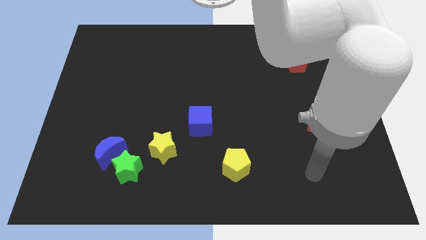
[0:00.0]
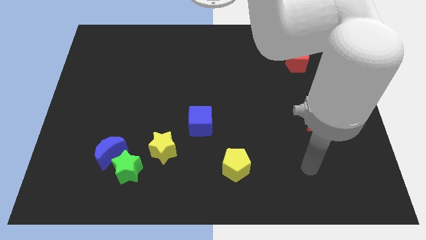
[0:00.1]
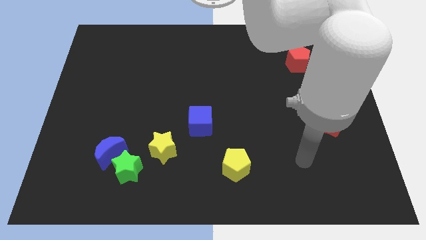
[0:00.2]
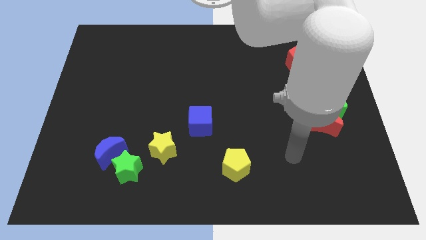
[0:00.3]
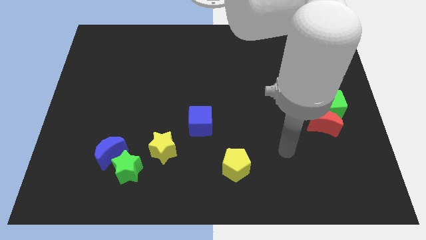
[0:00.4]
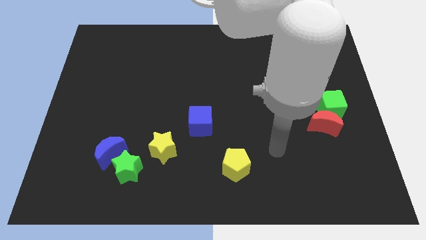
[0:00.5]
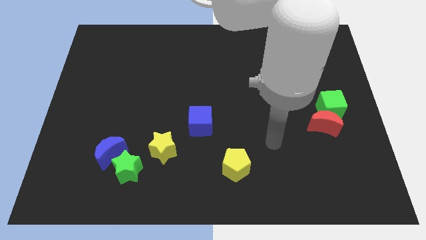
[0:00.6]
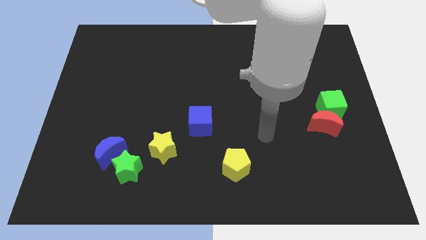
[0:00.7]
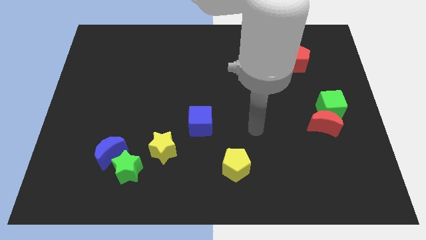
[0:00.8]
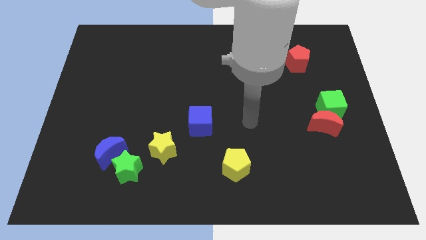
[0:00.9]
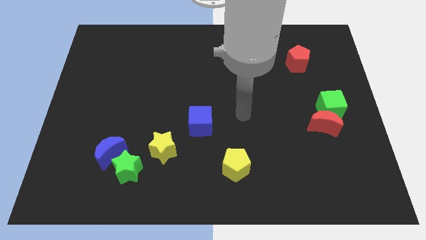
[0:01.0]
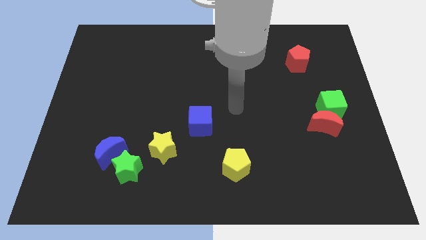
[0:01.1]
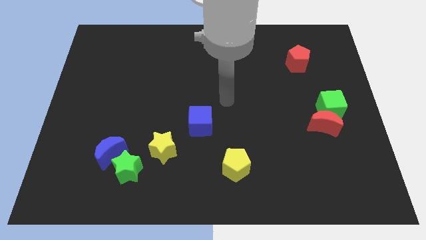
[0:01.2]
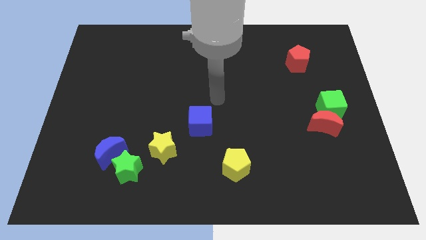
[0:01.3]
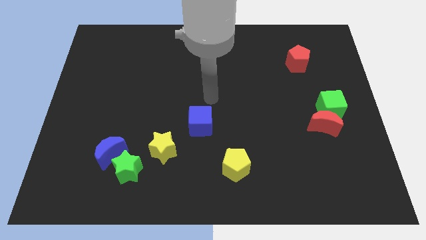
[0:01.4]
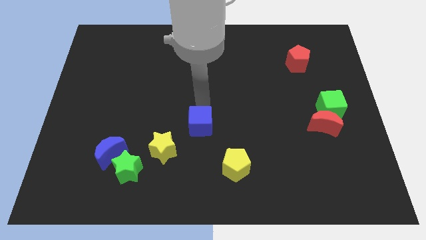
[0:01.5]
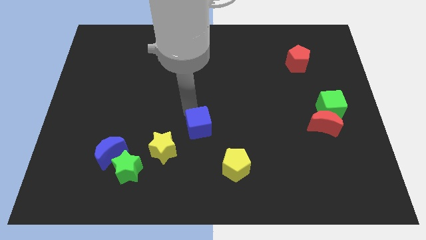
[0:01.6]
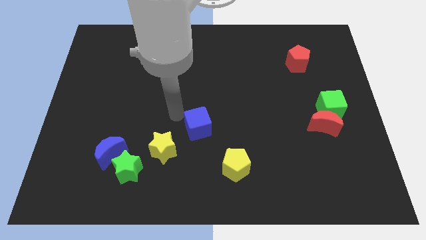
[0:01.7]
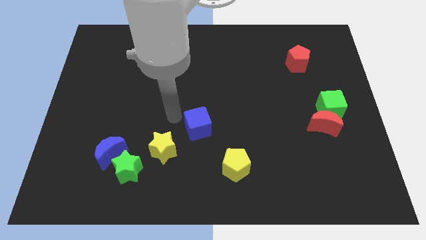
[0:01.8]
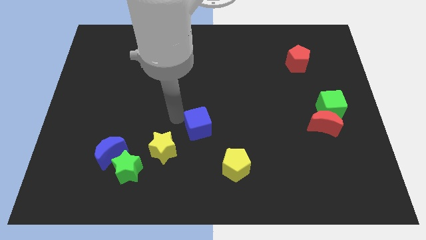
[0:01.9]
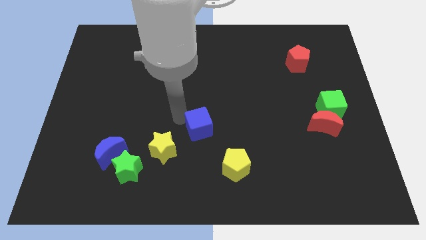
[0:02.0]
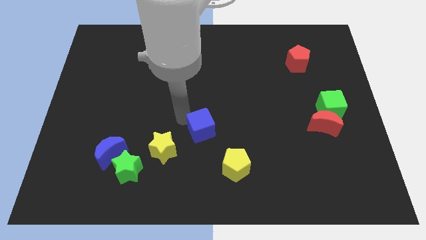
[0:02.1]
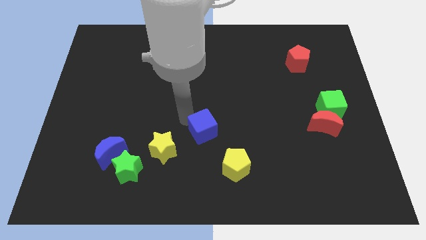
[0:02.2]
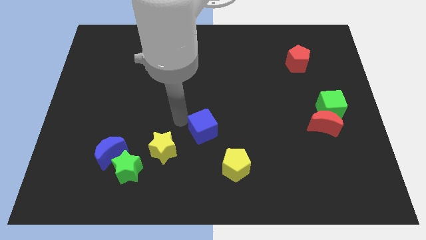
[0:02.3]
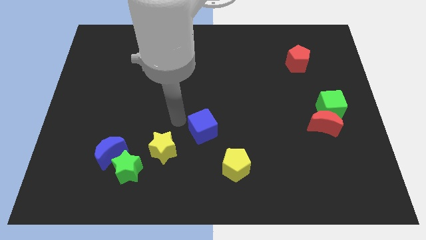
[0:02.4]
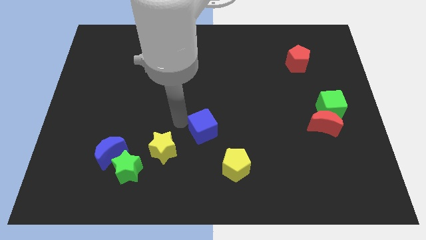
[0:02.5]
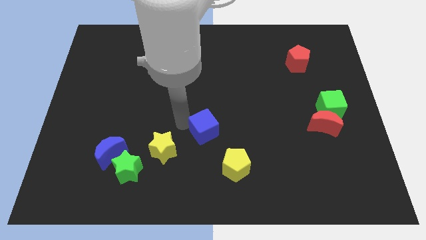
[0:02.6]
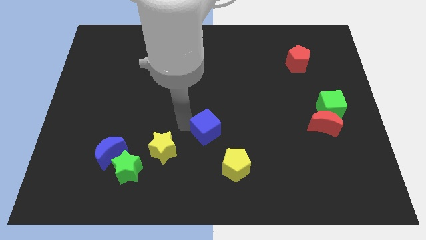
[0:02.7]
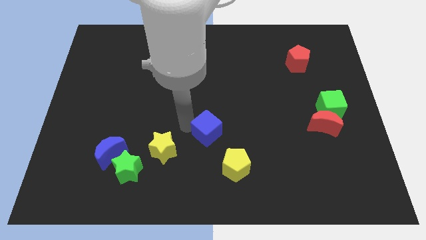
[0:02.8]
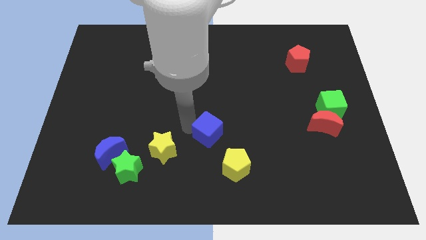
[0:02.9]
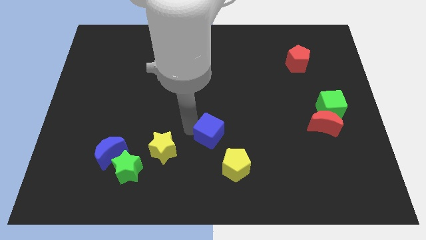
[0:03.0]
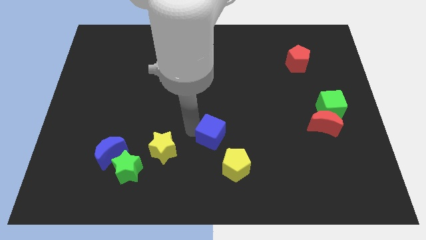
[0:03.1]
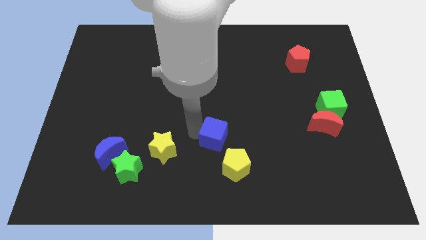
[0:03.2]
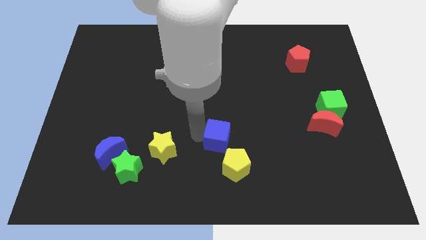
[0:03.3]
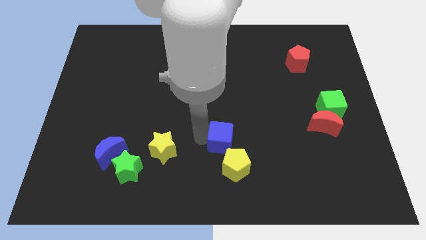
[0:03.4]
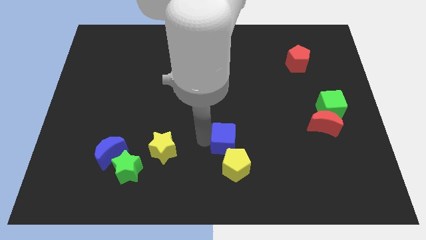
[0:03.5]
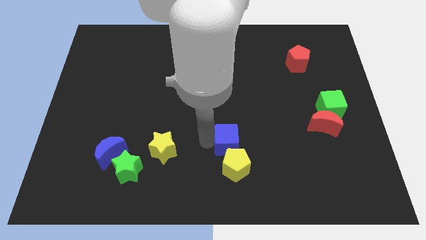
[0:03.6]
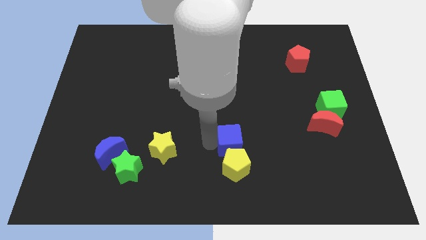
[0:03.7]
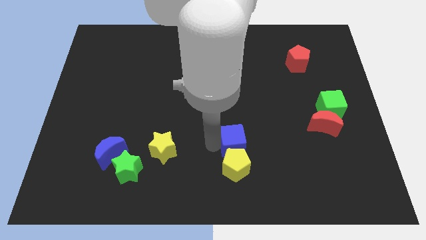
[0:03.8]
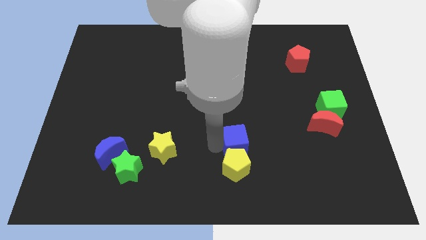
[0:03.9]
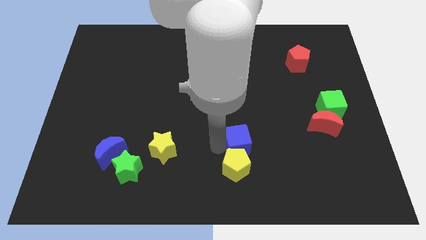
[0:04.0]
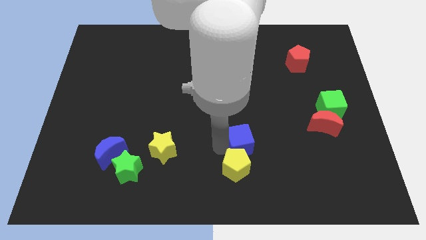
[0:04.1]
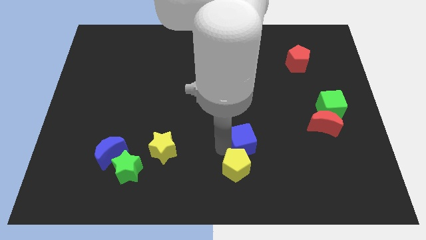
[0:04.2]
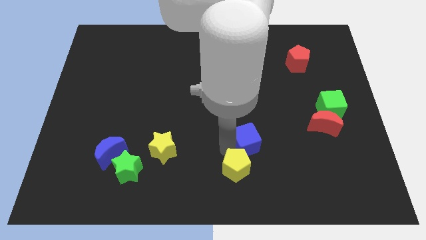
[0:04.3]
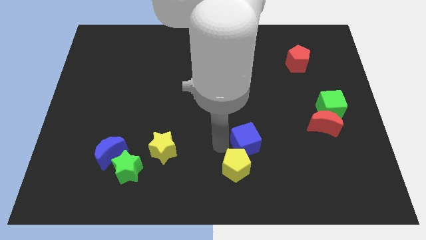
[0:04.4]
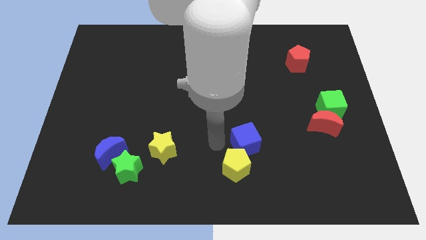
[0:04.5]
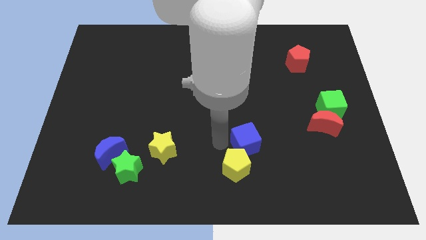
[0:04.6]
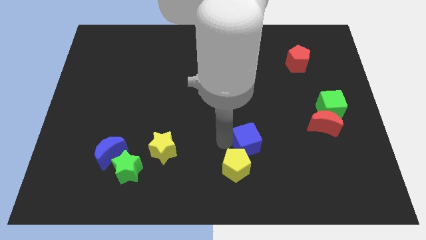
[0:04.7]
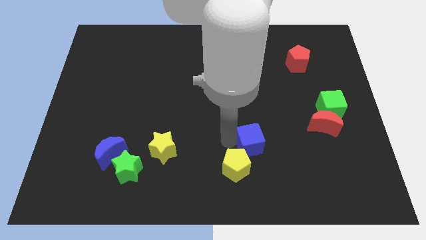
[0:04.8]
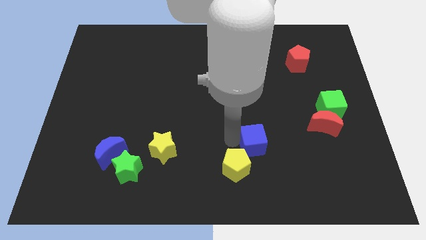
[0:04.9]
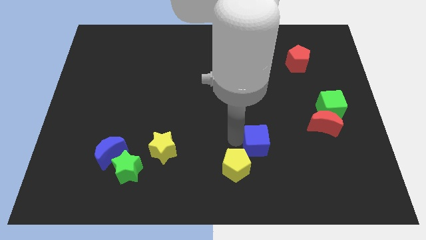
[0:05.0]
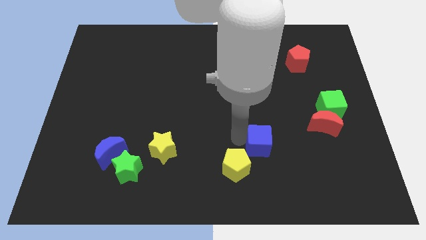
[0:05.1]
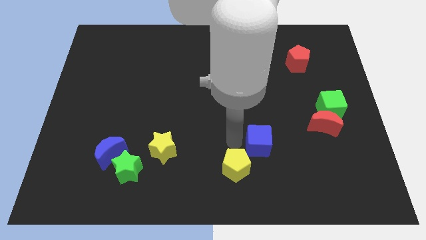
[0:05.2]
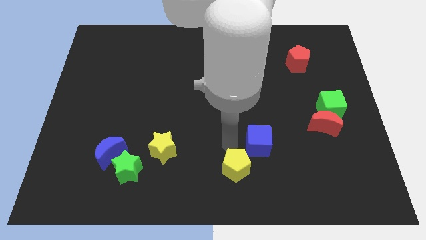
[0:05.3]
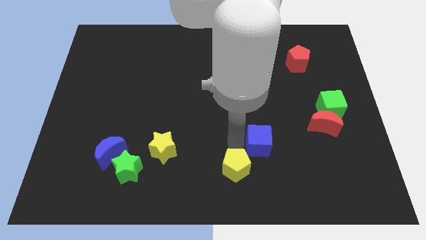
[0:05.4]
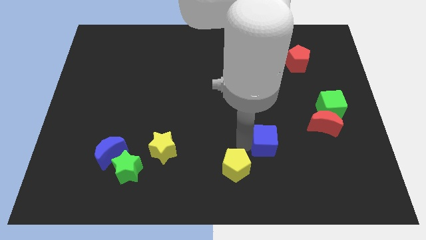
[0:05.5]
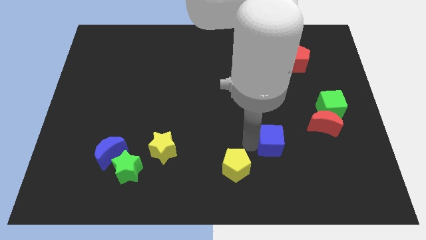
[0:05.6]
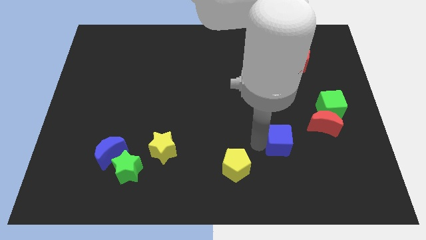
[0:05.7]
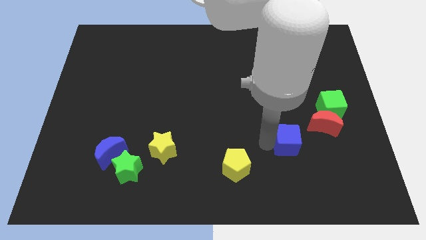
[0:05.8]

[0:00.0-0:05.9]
move the blue cube diagonally down and to the left of the red moon

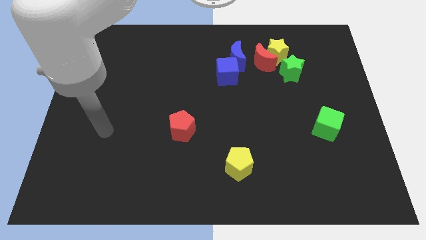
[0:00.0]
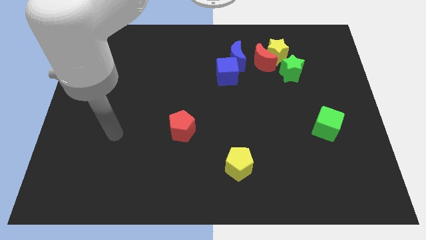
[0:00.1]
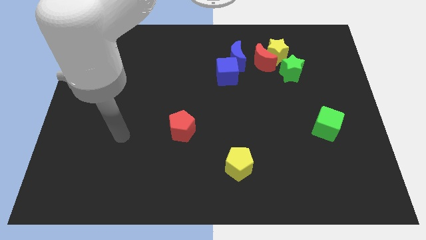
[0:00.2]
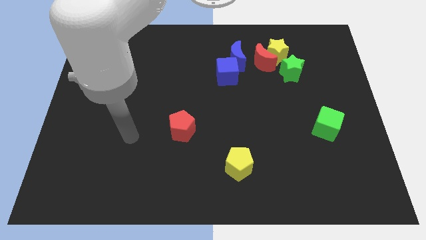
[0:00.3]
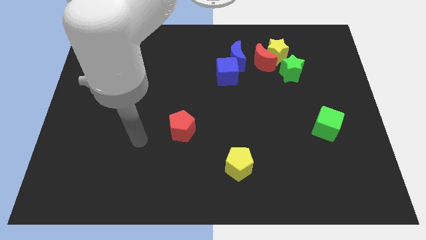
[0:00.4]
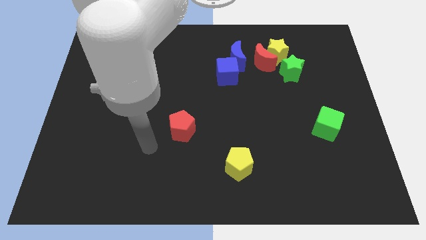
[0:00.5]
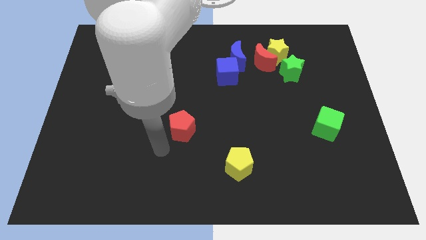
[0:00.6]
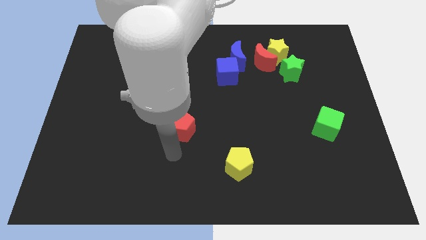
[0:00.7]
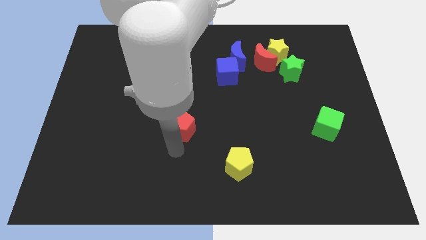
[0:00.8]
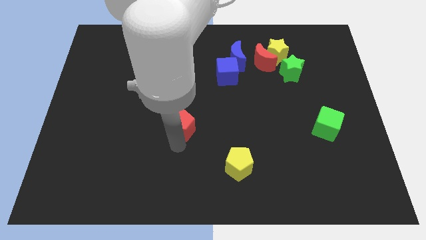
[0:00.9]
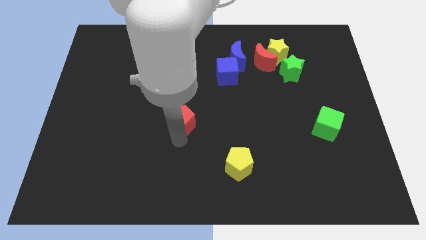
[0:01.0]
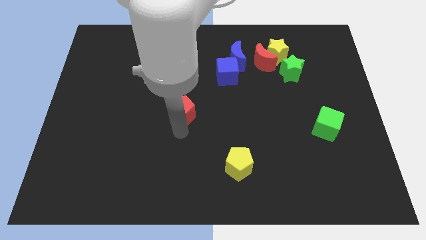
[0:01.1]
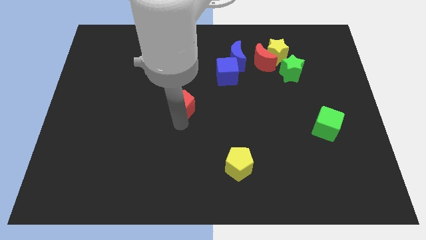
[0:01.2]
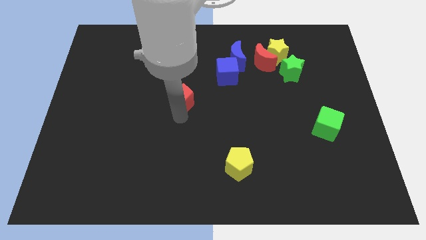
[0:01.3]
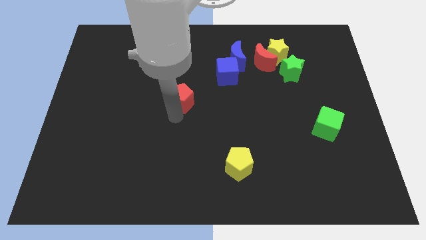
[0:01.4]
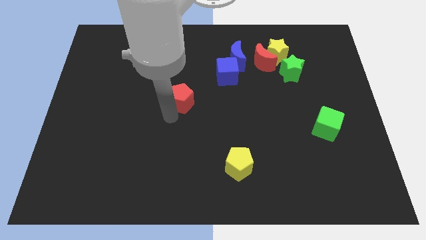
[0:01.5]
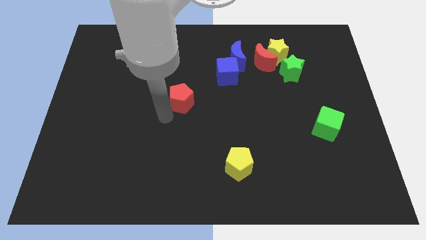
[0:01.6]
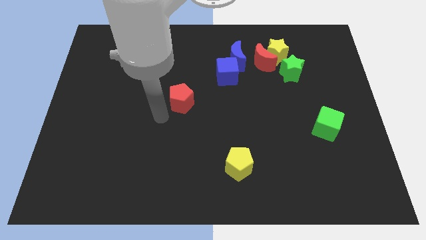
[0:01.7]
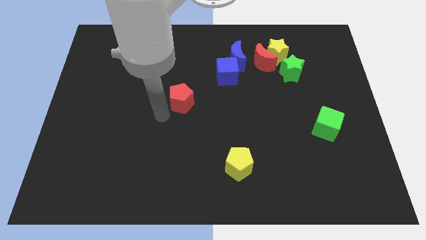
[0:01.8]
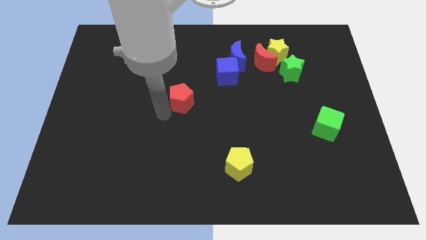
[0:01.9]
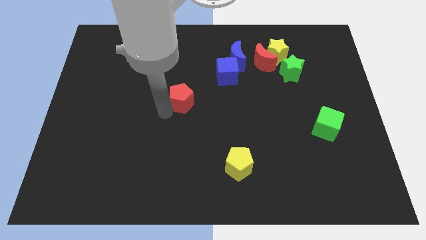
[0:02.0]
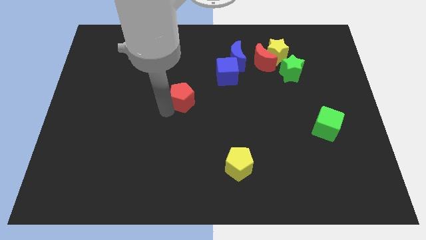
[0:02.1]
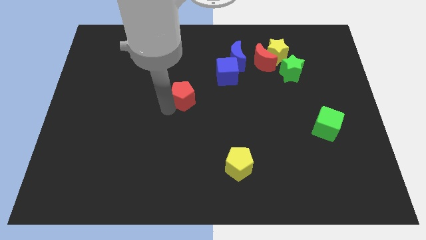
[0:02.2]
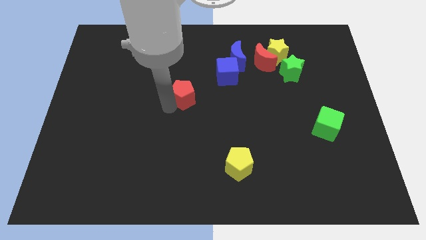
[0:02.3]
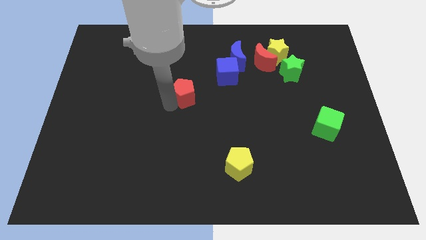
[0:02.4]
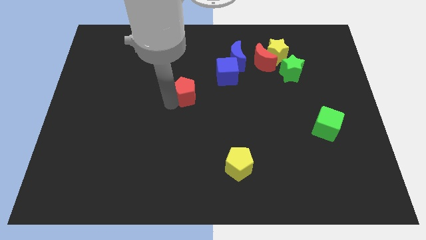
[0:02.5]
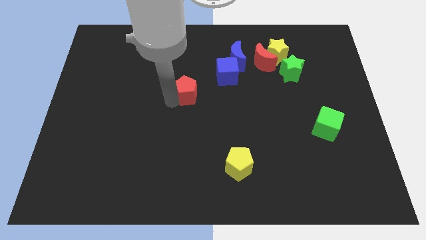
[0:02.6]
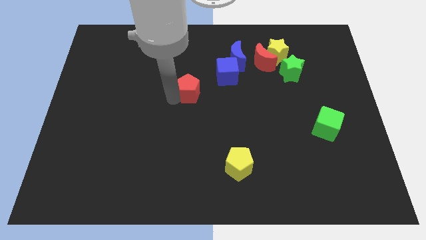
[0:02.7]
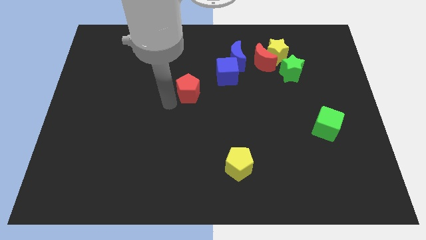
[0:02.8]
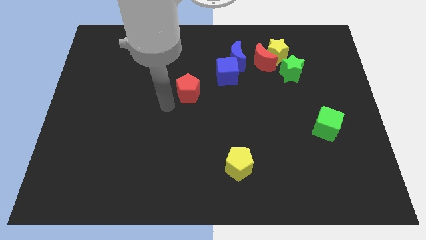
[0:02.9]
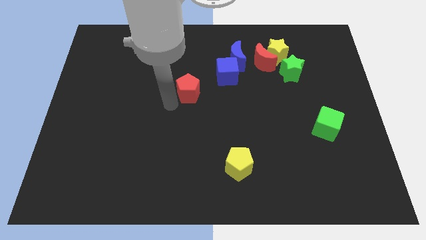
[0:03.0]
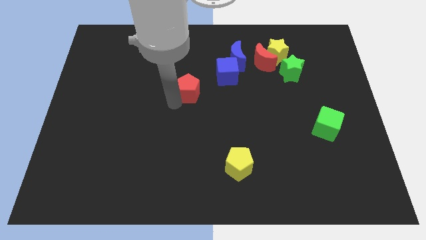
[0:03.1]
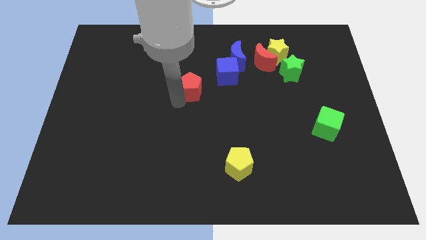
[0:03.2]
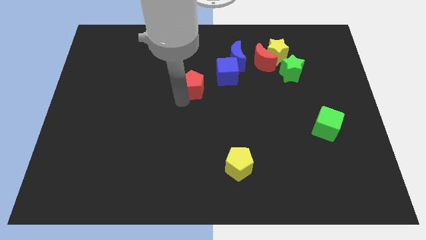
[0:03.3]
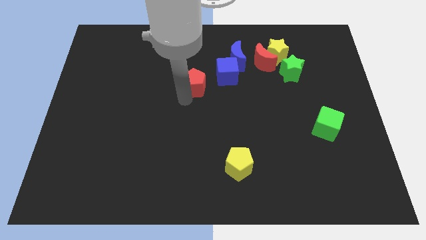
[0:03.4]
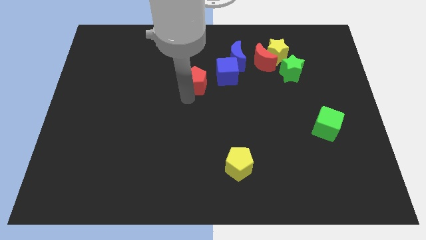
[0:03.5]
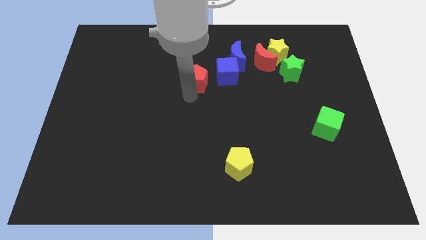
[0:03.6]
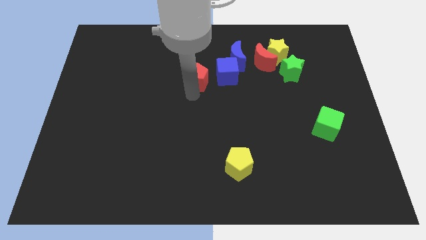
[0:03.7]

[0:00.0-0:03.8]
slide the red pentagon to the bottom left of the blue moon
